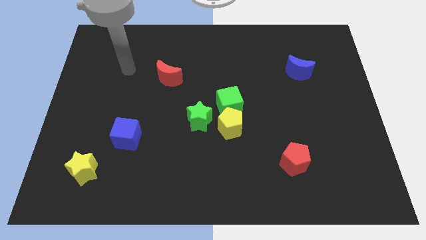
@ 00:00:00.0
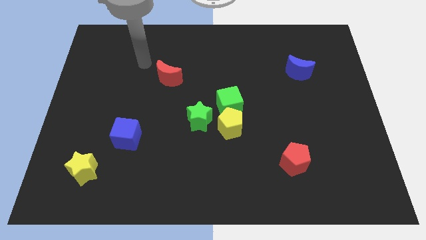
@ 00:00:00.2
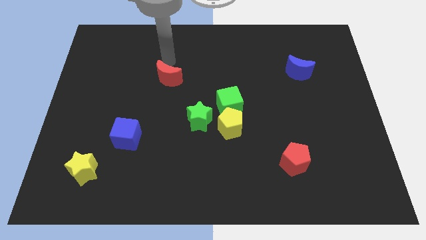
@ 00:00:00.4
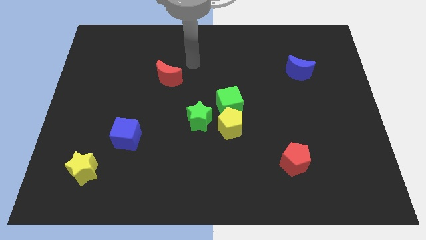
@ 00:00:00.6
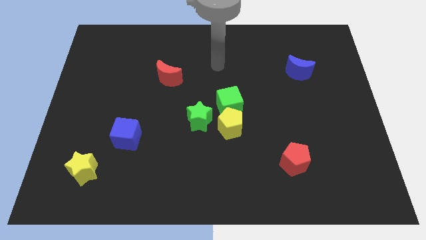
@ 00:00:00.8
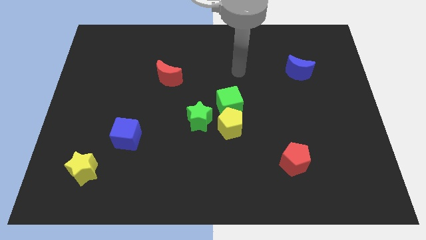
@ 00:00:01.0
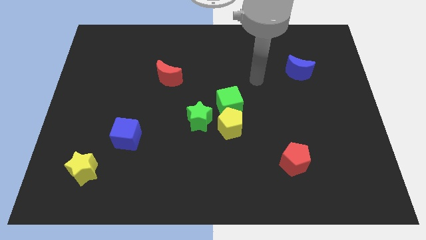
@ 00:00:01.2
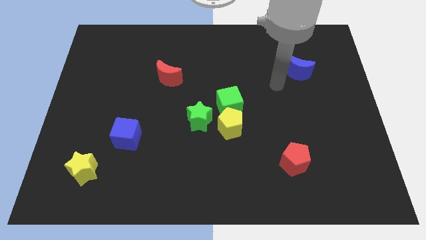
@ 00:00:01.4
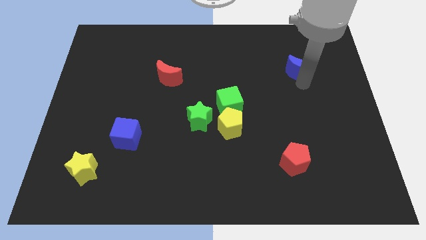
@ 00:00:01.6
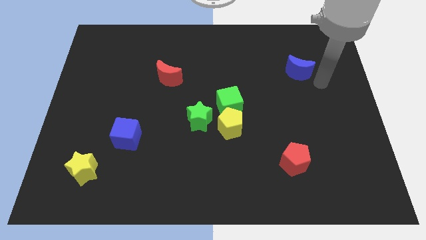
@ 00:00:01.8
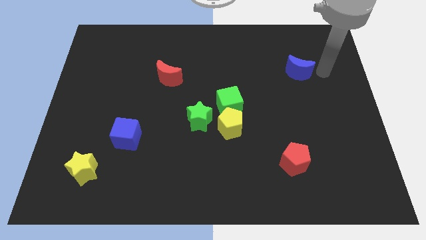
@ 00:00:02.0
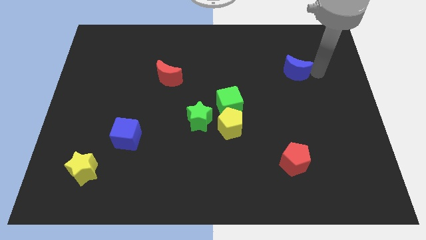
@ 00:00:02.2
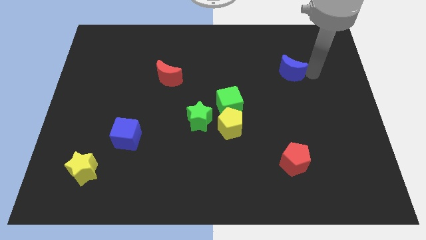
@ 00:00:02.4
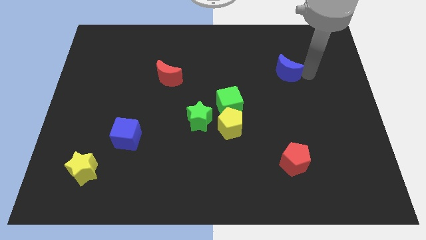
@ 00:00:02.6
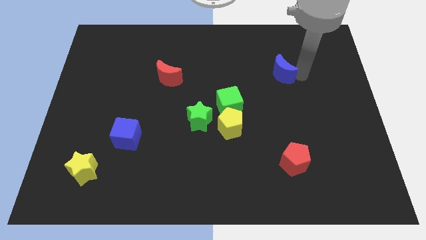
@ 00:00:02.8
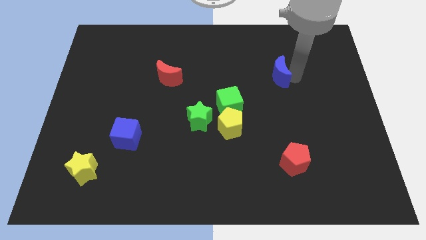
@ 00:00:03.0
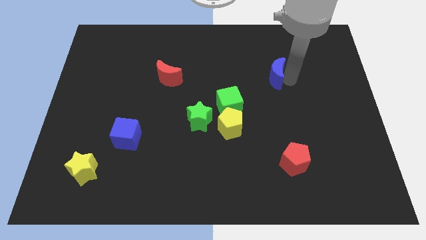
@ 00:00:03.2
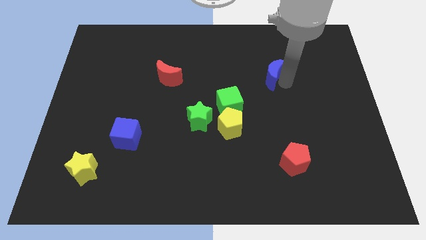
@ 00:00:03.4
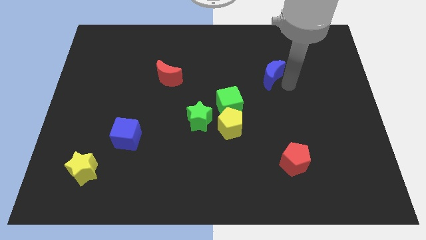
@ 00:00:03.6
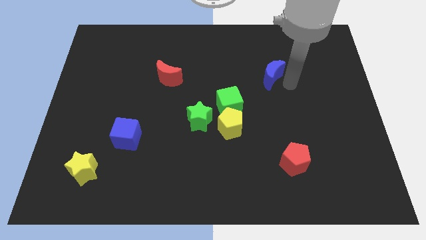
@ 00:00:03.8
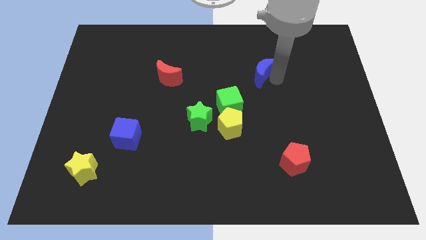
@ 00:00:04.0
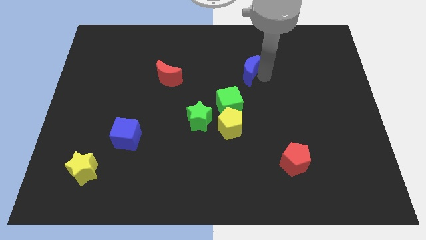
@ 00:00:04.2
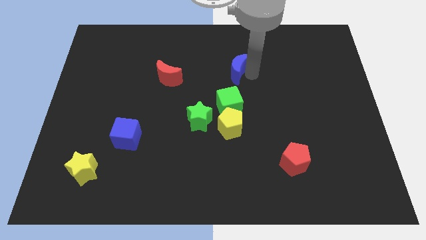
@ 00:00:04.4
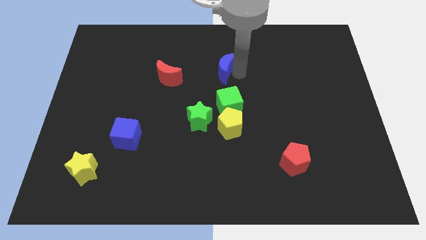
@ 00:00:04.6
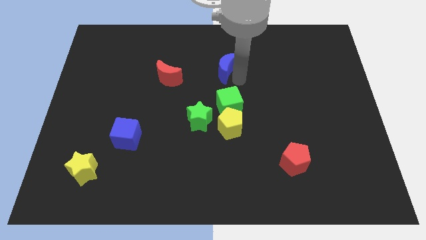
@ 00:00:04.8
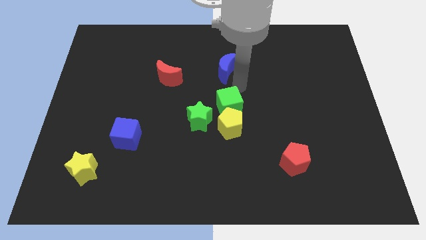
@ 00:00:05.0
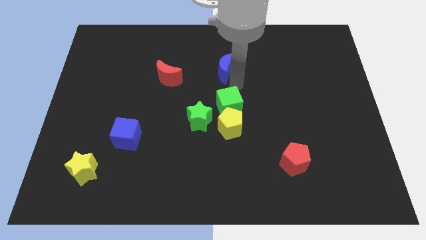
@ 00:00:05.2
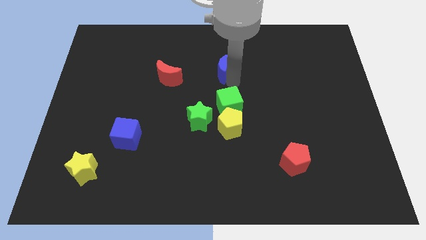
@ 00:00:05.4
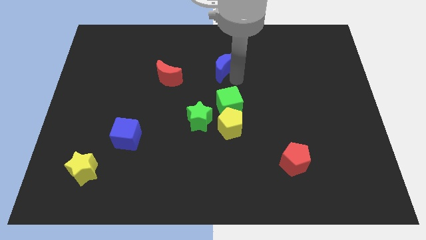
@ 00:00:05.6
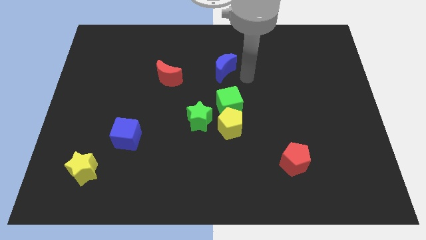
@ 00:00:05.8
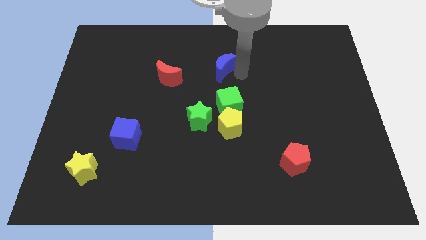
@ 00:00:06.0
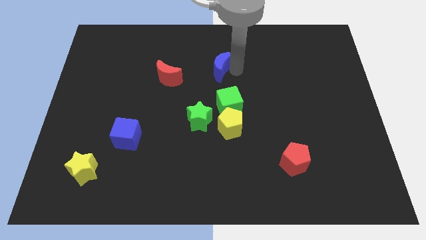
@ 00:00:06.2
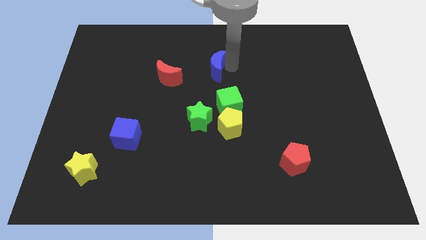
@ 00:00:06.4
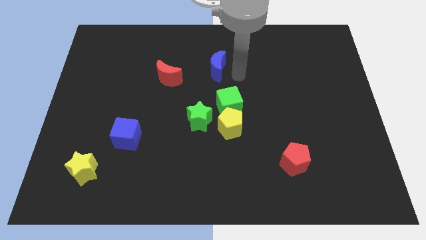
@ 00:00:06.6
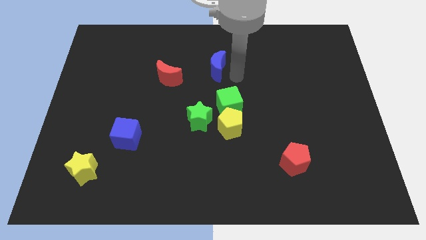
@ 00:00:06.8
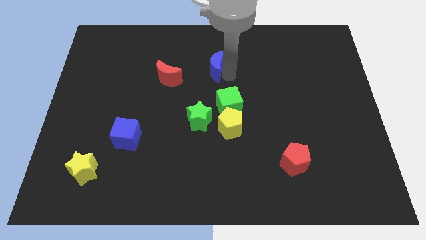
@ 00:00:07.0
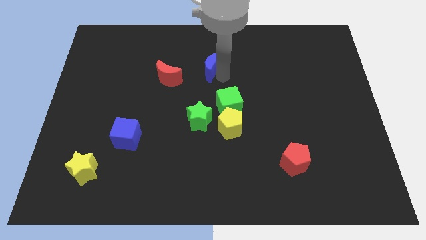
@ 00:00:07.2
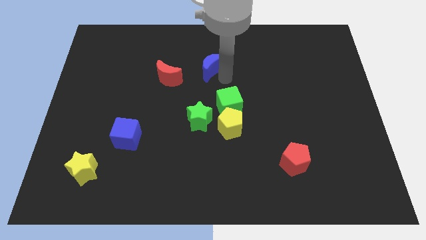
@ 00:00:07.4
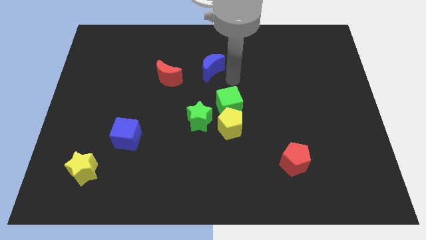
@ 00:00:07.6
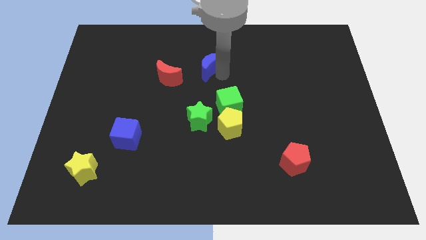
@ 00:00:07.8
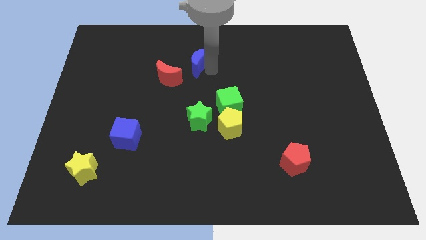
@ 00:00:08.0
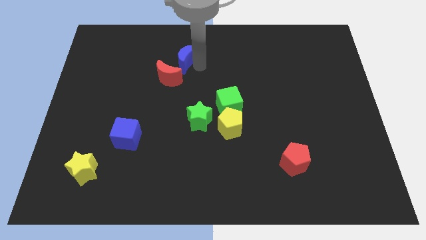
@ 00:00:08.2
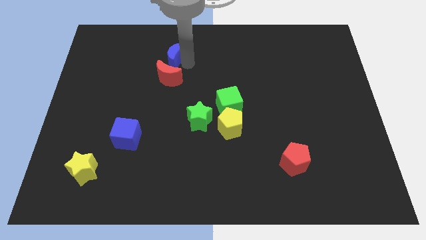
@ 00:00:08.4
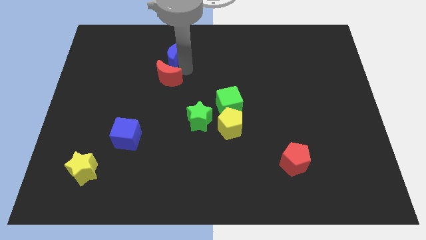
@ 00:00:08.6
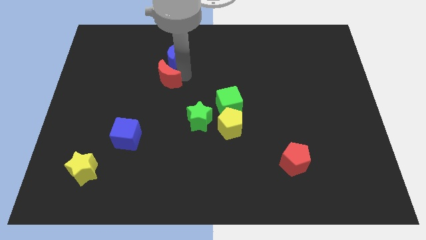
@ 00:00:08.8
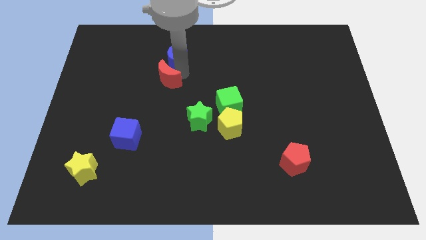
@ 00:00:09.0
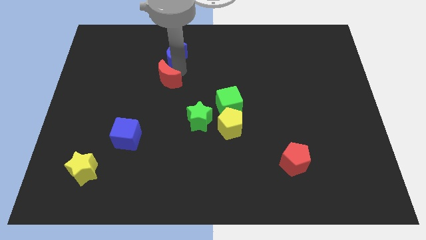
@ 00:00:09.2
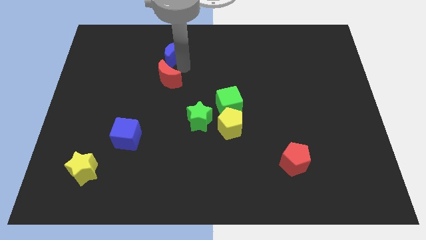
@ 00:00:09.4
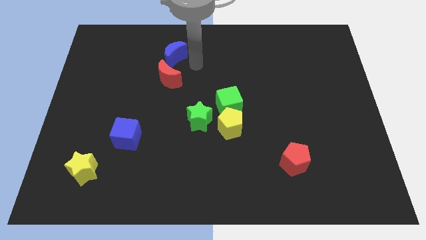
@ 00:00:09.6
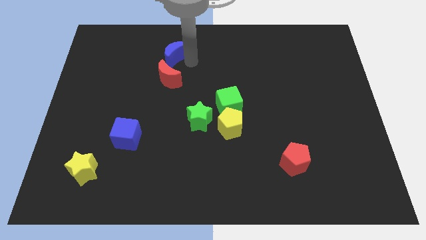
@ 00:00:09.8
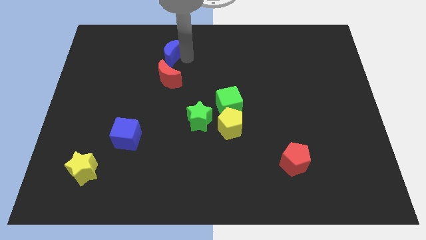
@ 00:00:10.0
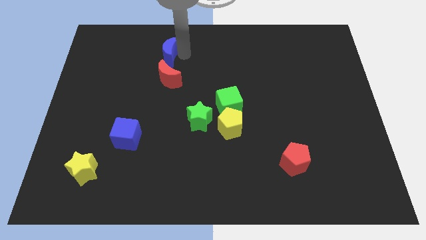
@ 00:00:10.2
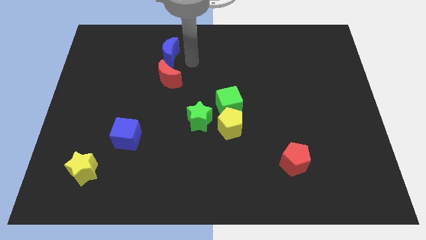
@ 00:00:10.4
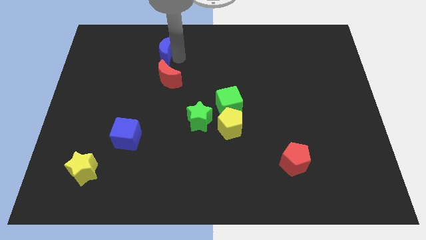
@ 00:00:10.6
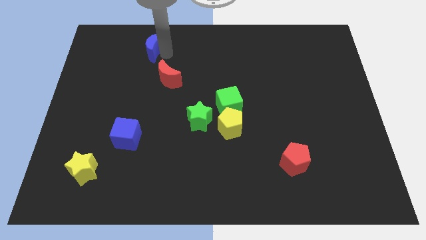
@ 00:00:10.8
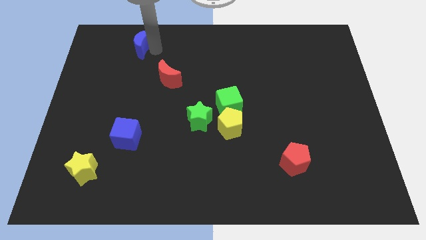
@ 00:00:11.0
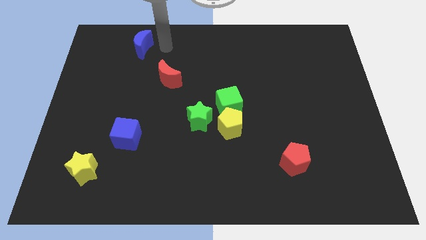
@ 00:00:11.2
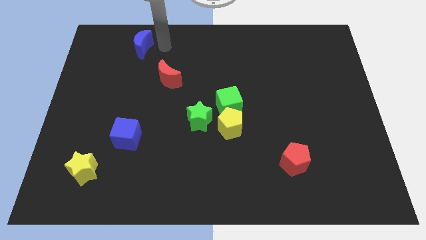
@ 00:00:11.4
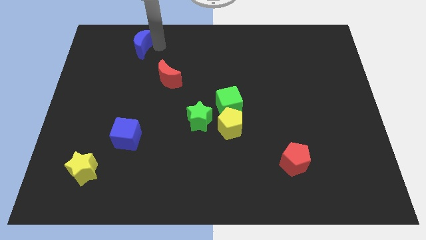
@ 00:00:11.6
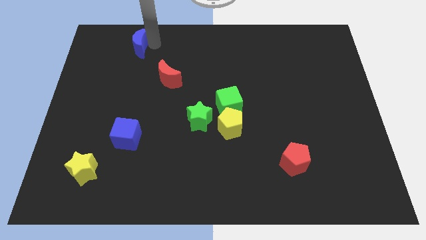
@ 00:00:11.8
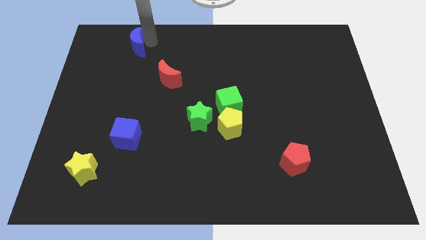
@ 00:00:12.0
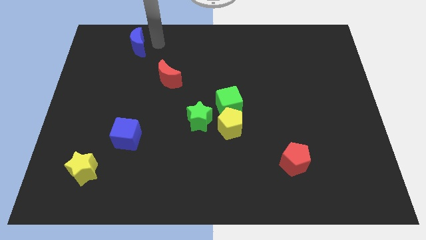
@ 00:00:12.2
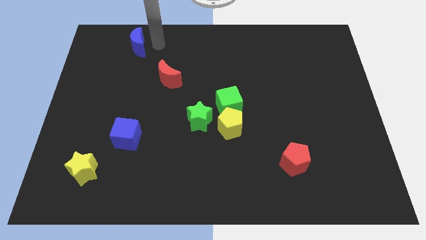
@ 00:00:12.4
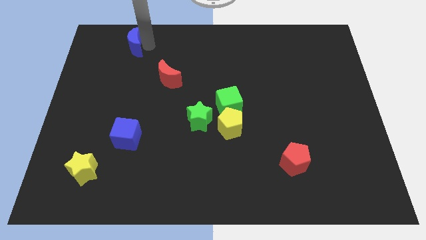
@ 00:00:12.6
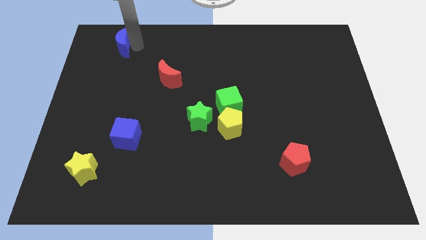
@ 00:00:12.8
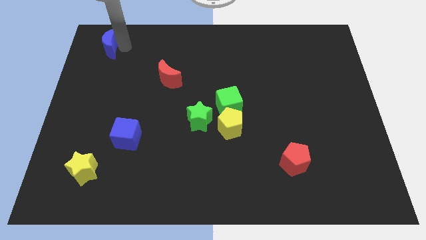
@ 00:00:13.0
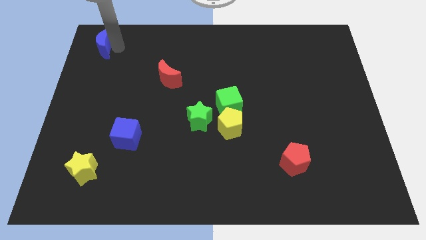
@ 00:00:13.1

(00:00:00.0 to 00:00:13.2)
slide the blue moon to the top left of the board

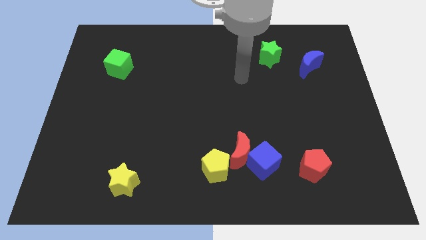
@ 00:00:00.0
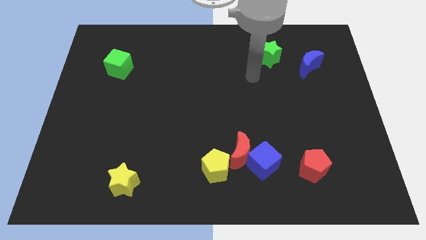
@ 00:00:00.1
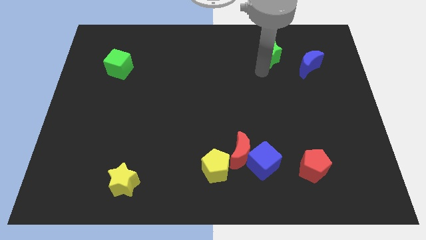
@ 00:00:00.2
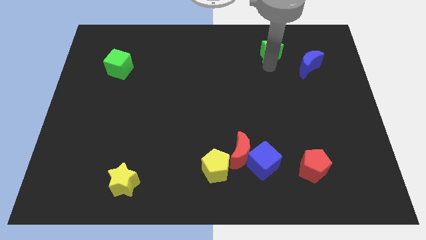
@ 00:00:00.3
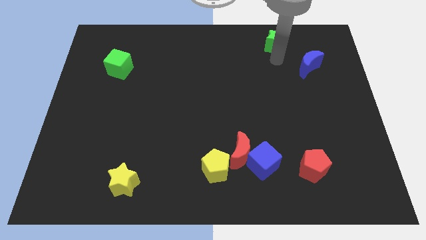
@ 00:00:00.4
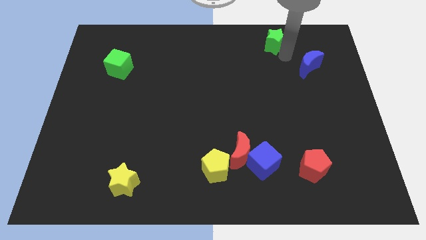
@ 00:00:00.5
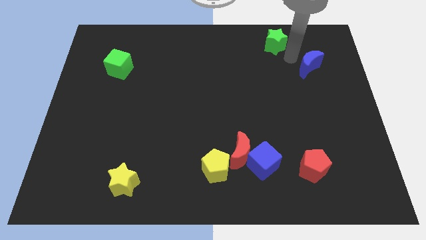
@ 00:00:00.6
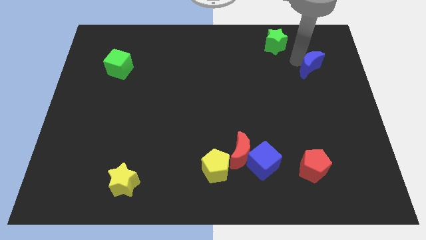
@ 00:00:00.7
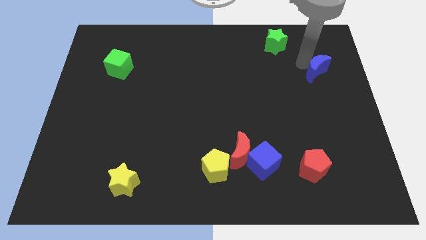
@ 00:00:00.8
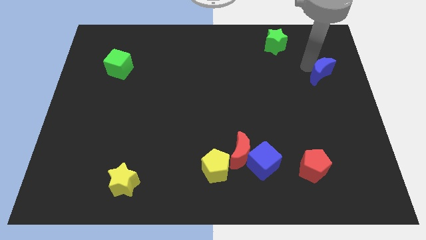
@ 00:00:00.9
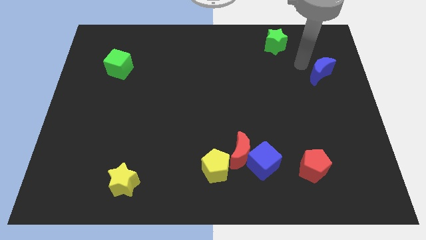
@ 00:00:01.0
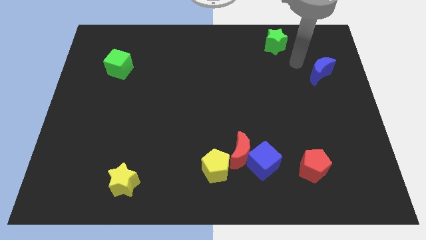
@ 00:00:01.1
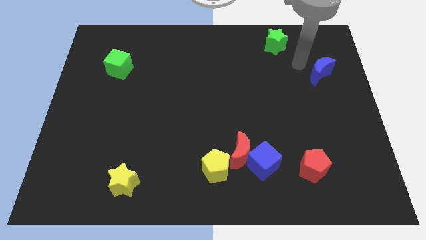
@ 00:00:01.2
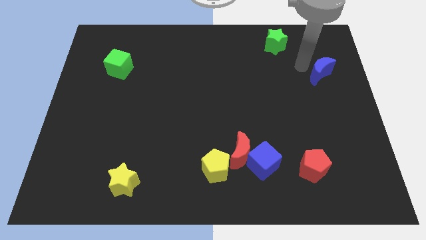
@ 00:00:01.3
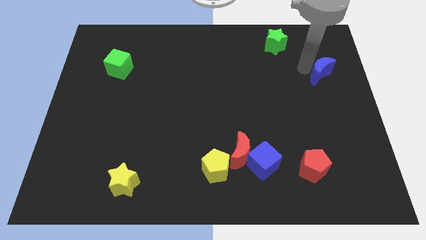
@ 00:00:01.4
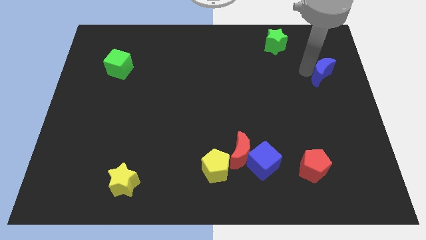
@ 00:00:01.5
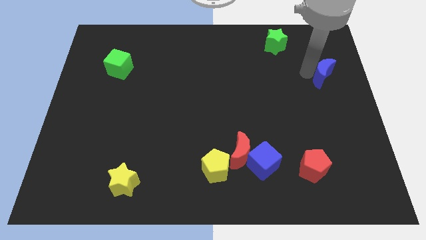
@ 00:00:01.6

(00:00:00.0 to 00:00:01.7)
slide the blue moon to the right side of the board
